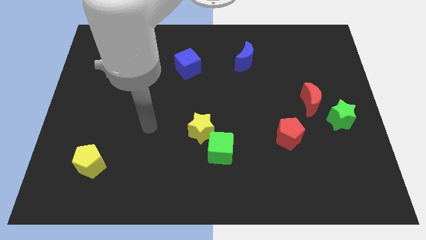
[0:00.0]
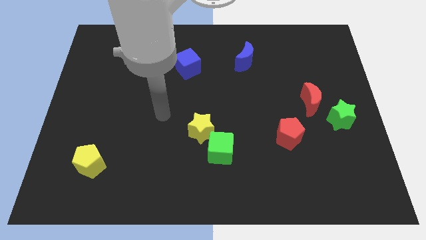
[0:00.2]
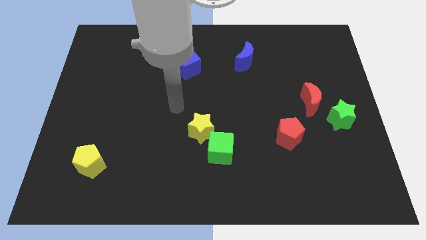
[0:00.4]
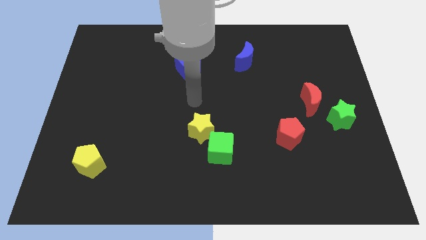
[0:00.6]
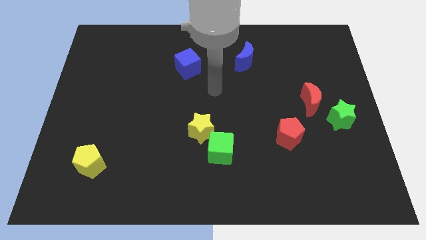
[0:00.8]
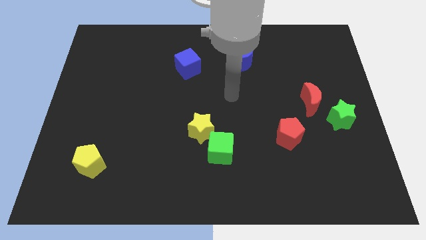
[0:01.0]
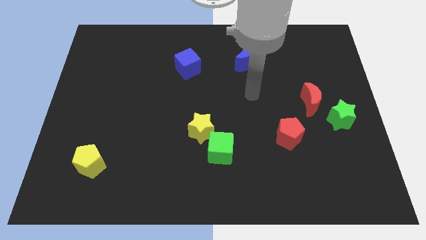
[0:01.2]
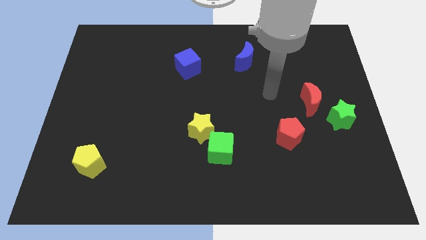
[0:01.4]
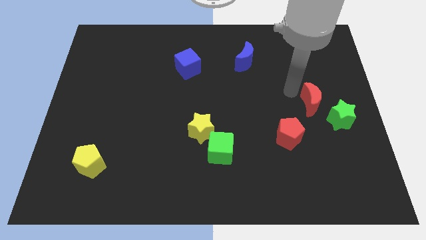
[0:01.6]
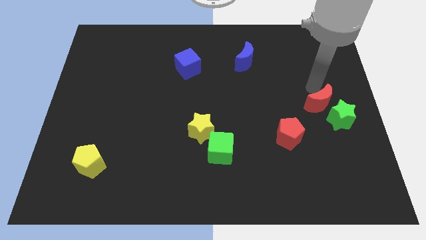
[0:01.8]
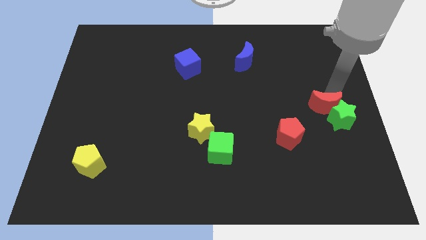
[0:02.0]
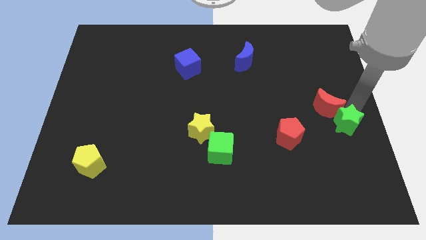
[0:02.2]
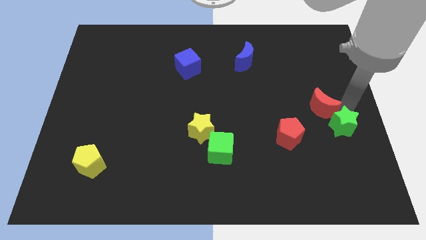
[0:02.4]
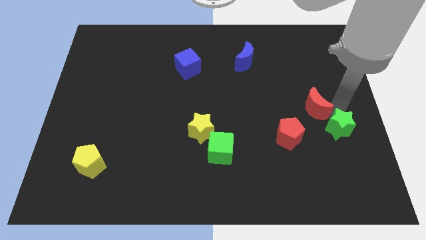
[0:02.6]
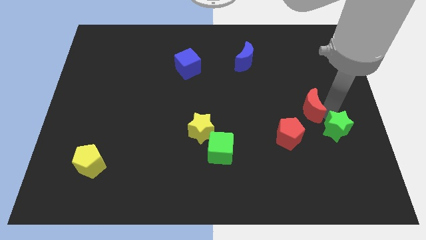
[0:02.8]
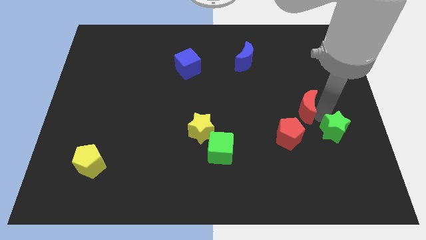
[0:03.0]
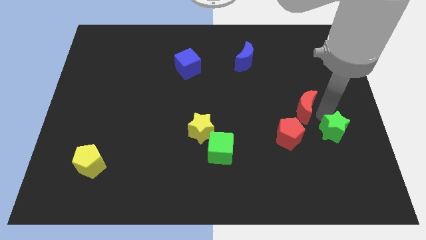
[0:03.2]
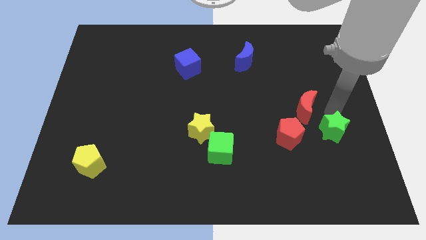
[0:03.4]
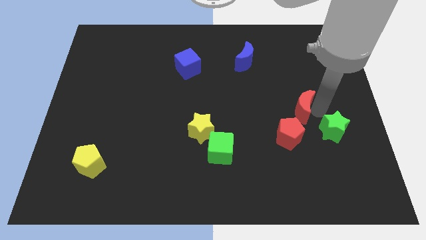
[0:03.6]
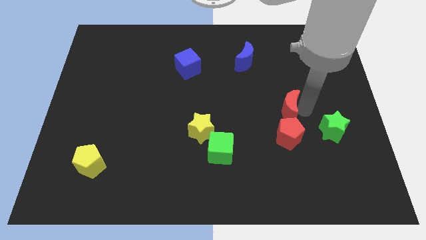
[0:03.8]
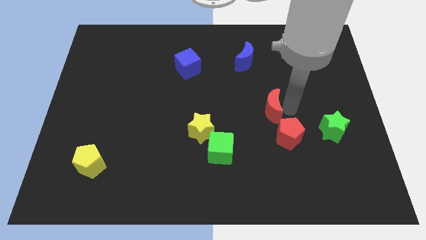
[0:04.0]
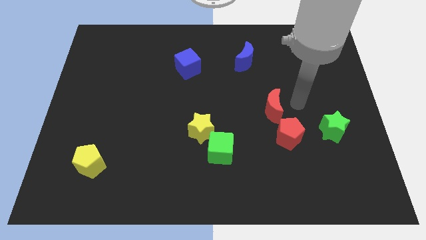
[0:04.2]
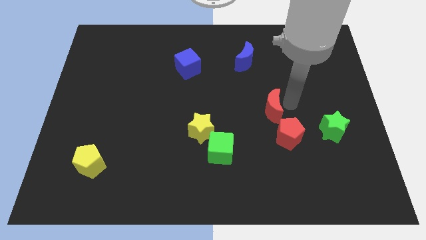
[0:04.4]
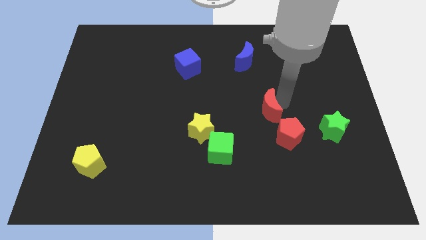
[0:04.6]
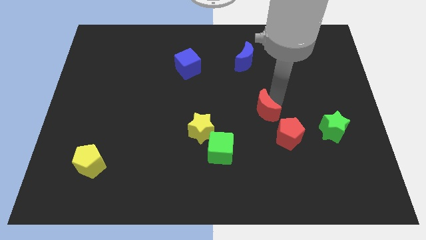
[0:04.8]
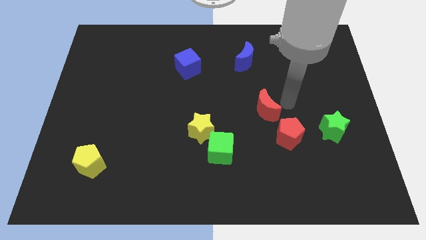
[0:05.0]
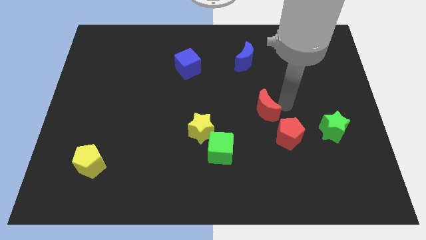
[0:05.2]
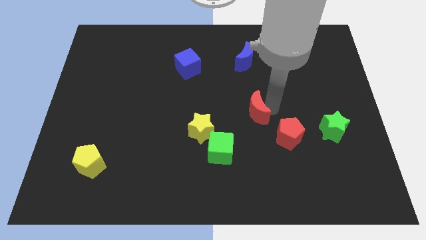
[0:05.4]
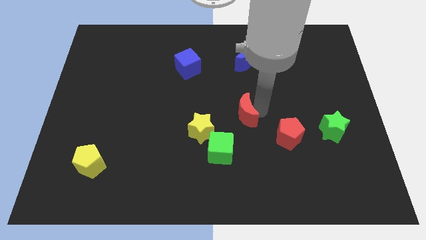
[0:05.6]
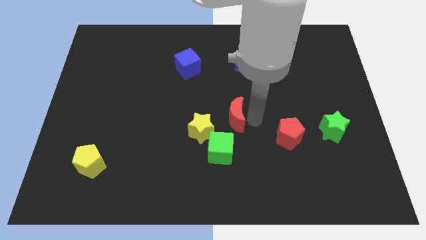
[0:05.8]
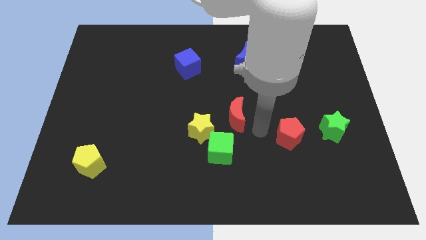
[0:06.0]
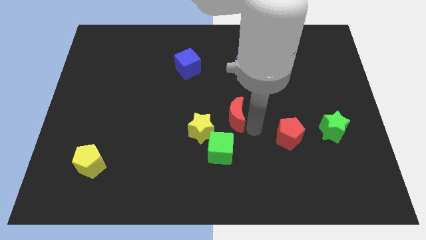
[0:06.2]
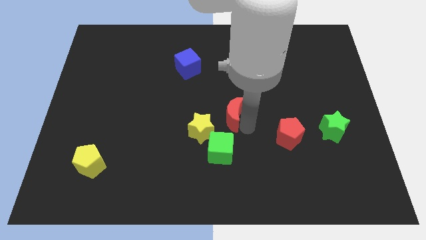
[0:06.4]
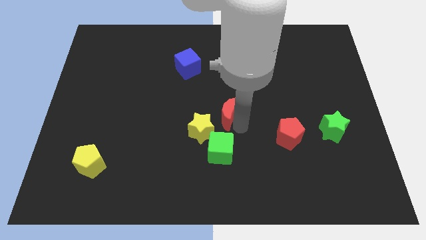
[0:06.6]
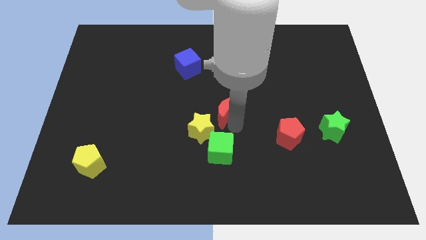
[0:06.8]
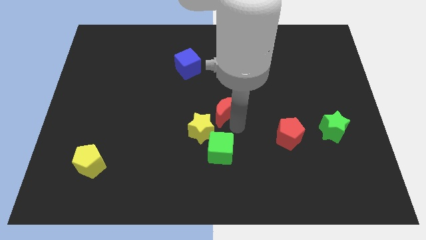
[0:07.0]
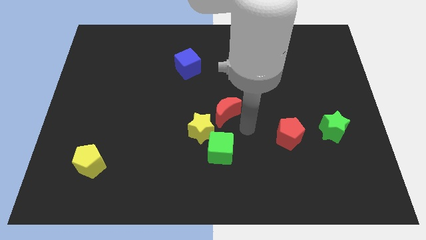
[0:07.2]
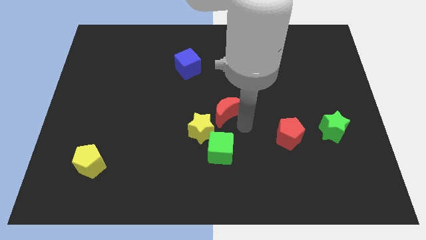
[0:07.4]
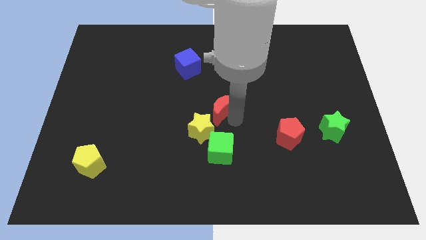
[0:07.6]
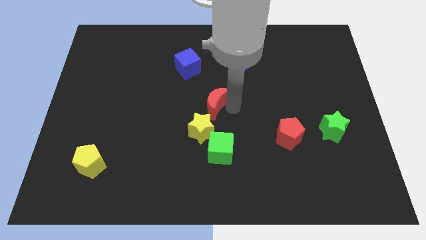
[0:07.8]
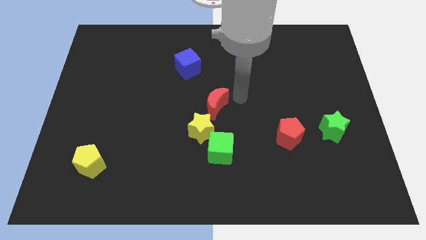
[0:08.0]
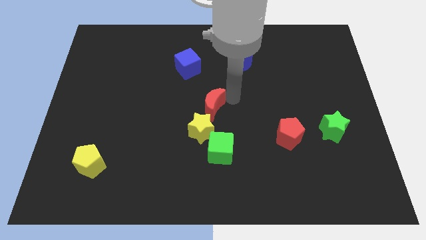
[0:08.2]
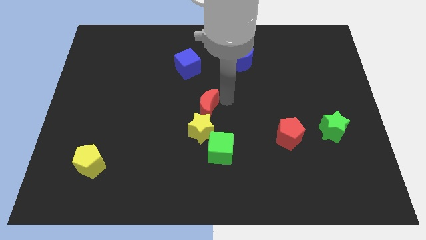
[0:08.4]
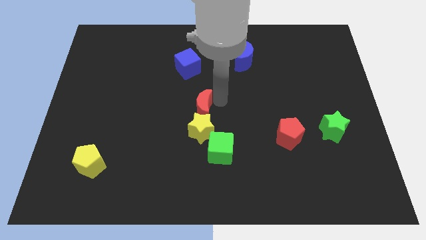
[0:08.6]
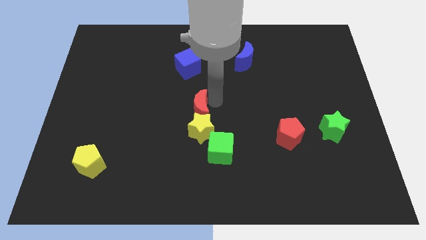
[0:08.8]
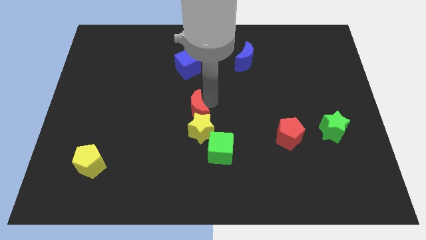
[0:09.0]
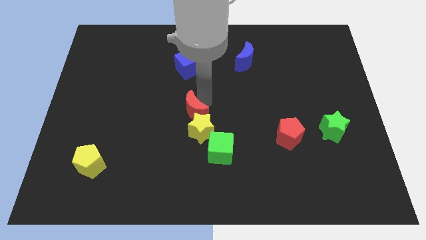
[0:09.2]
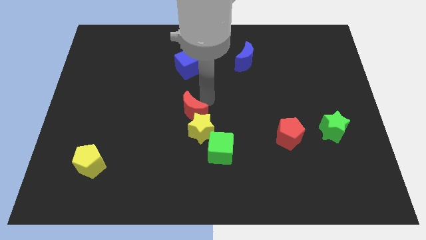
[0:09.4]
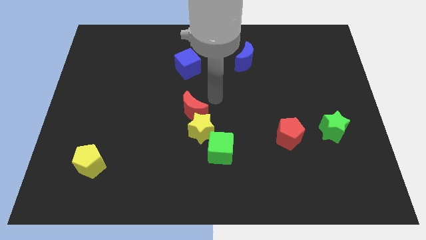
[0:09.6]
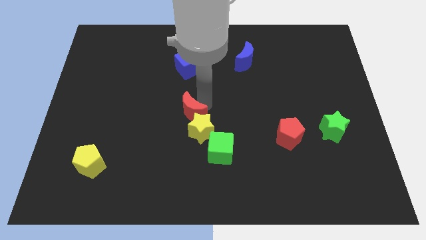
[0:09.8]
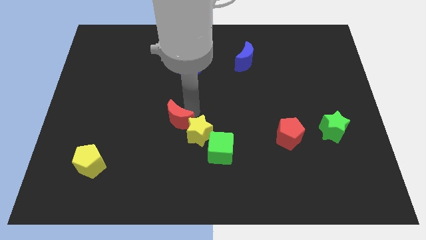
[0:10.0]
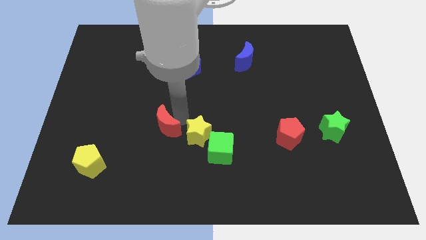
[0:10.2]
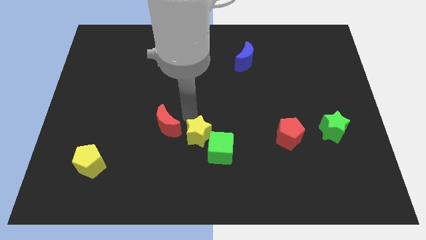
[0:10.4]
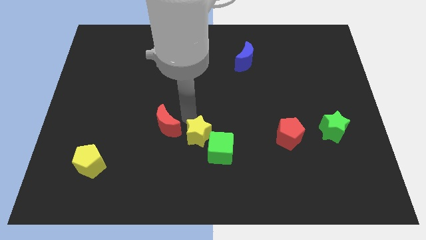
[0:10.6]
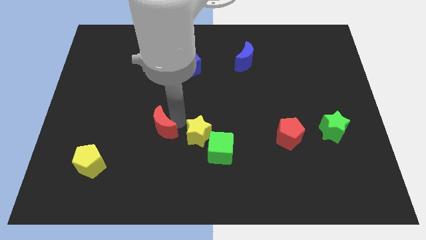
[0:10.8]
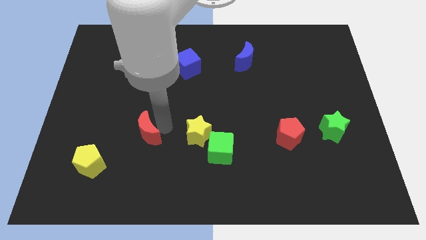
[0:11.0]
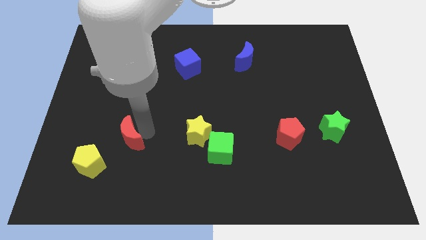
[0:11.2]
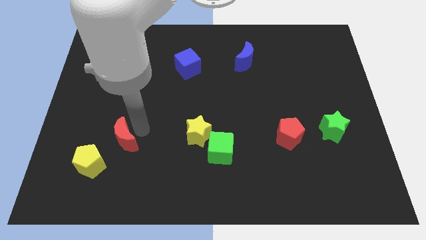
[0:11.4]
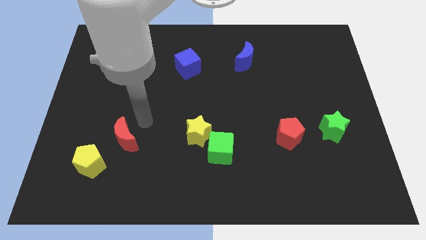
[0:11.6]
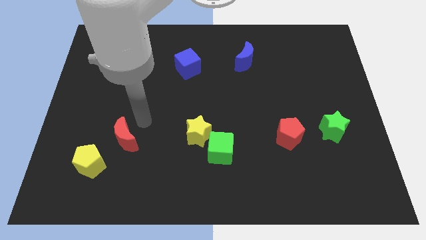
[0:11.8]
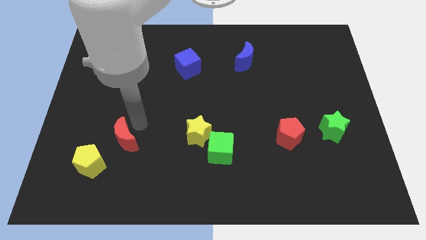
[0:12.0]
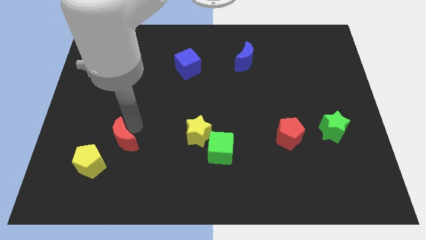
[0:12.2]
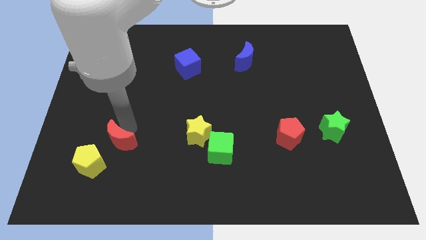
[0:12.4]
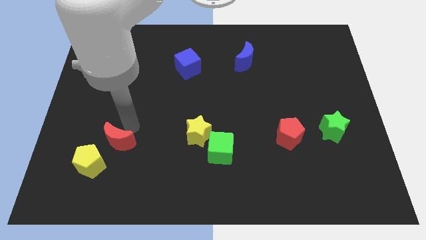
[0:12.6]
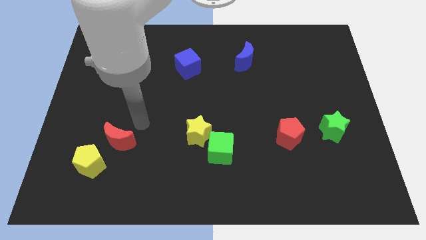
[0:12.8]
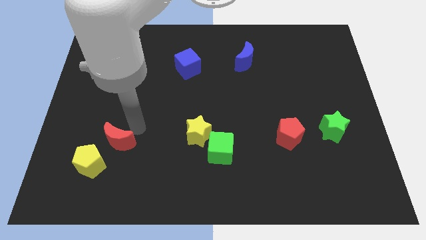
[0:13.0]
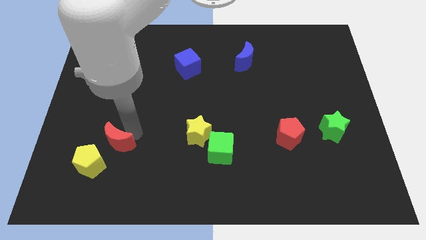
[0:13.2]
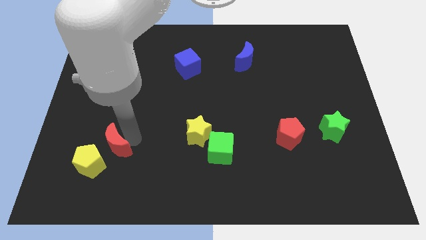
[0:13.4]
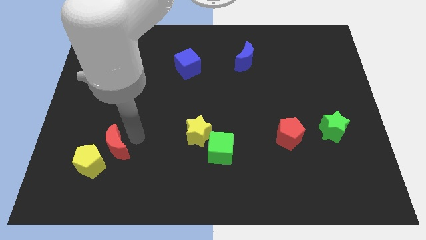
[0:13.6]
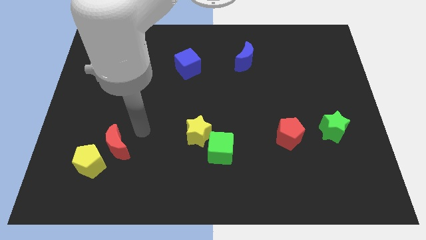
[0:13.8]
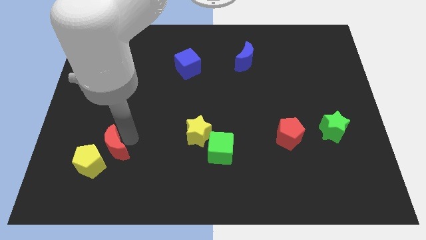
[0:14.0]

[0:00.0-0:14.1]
slide the red moon close to the yellow pentagon
